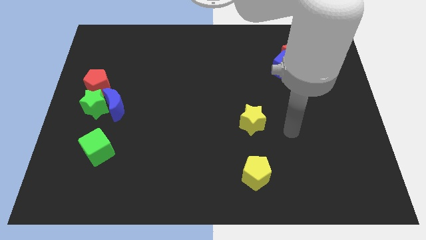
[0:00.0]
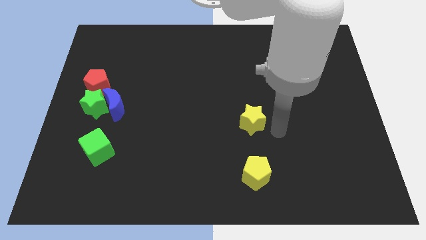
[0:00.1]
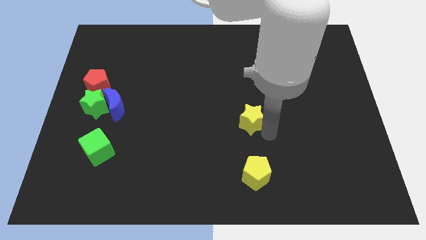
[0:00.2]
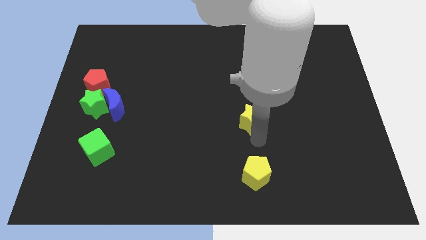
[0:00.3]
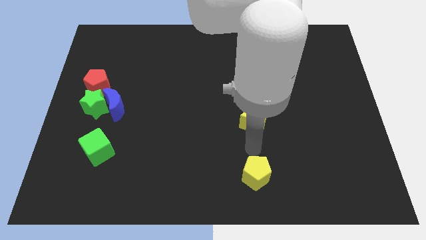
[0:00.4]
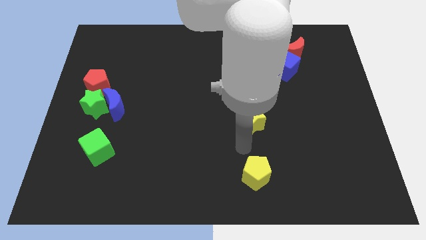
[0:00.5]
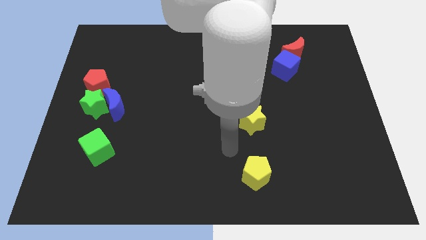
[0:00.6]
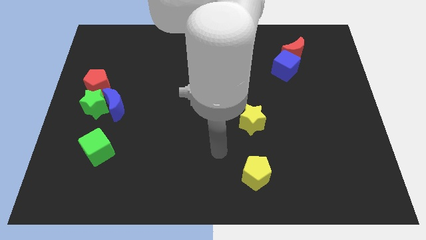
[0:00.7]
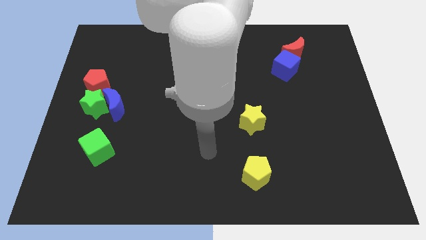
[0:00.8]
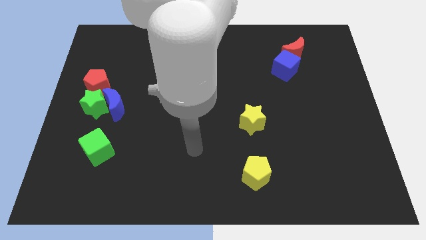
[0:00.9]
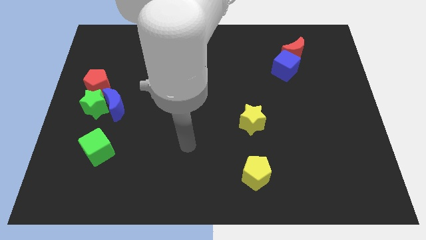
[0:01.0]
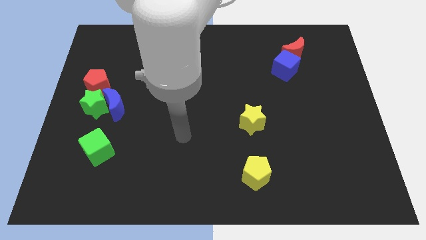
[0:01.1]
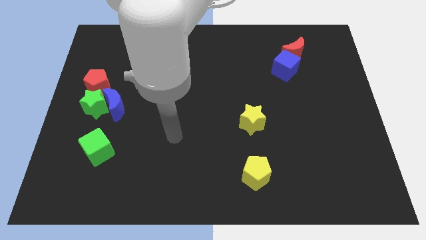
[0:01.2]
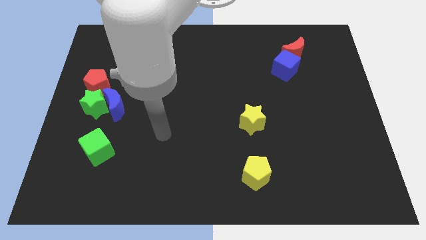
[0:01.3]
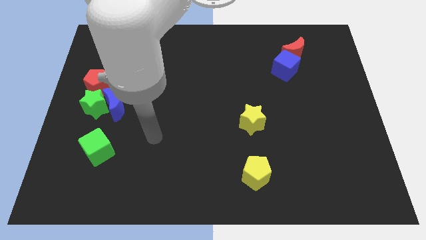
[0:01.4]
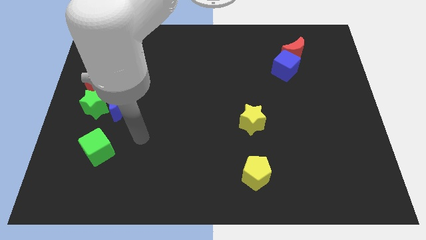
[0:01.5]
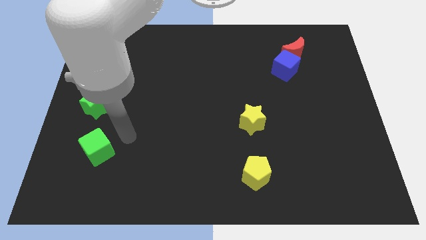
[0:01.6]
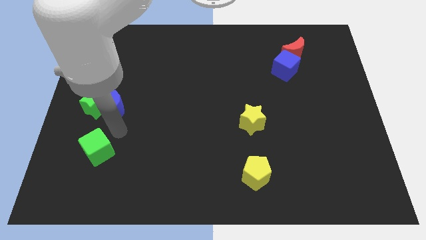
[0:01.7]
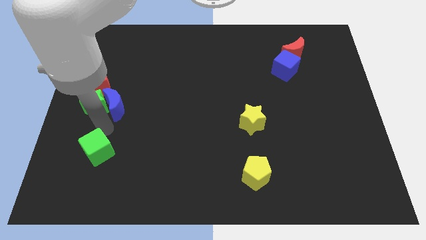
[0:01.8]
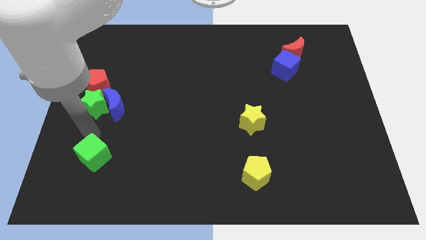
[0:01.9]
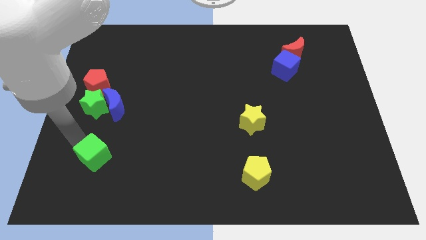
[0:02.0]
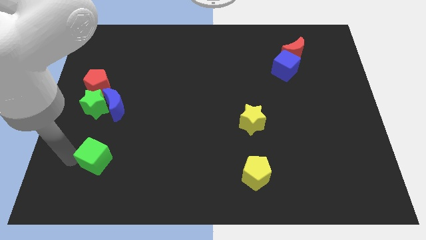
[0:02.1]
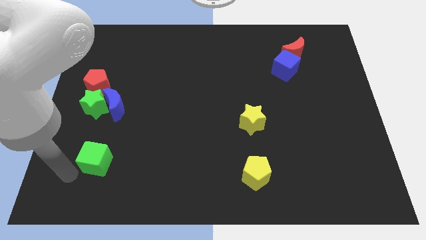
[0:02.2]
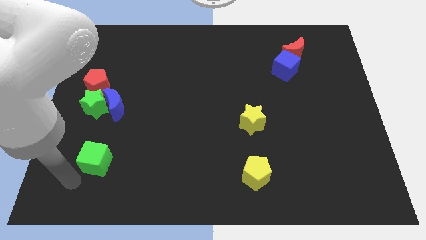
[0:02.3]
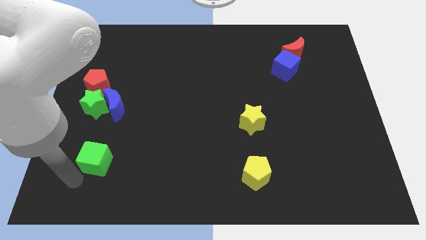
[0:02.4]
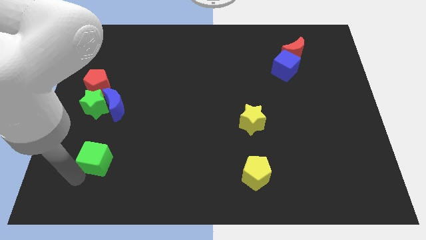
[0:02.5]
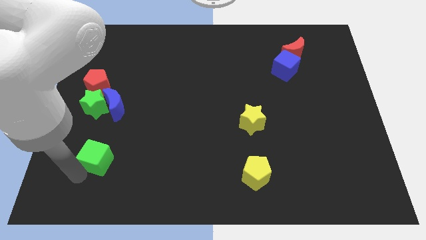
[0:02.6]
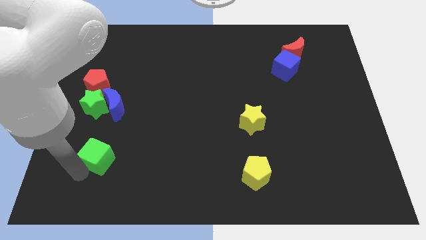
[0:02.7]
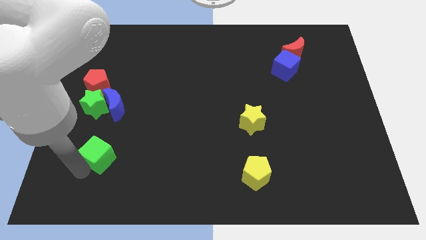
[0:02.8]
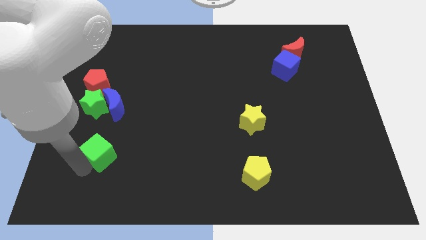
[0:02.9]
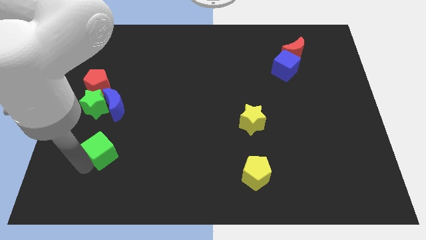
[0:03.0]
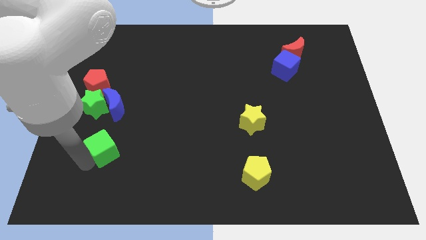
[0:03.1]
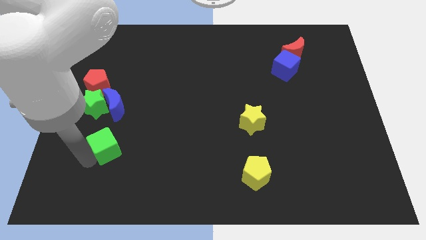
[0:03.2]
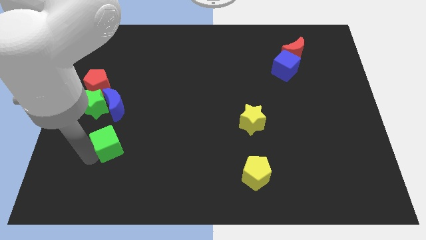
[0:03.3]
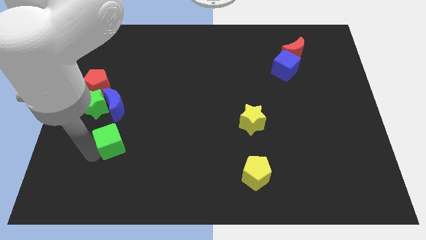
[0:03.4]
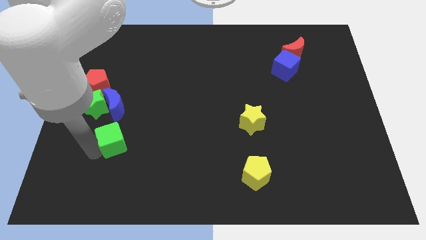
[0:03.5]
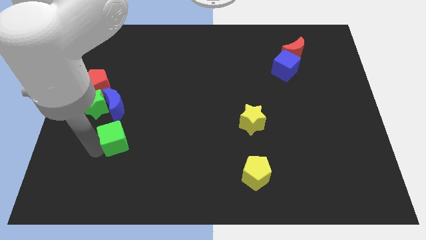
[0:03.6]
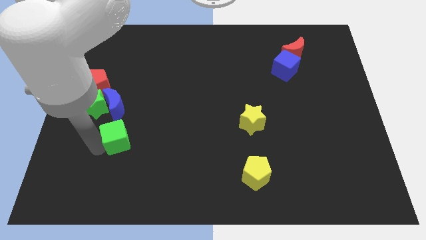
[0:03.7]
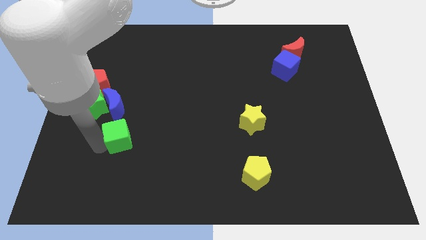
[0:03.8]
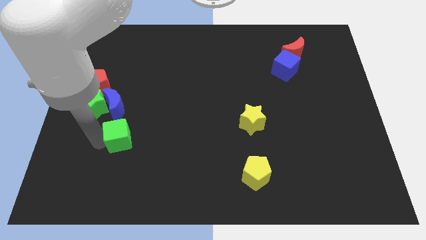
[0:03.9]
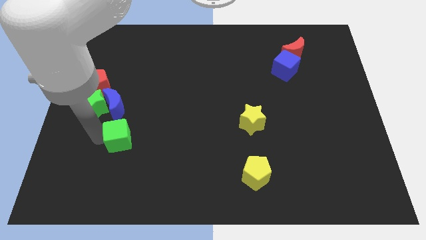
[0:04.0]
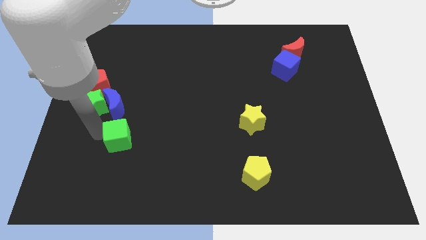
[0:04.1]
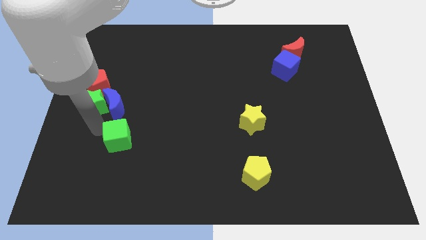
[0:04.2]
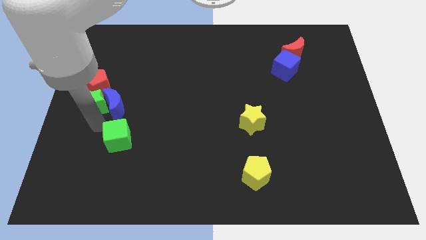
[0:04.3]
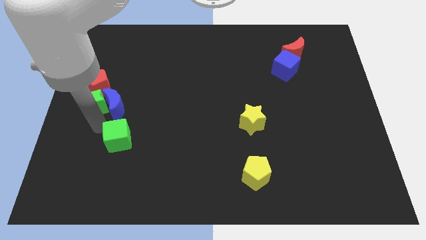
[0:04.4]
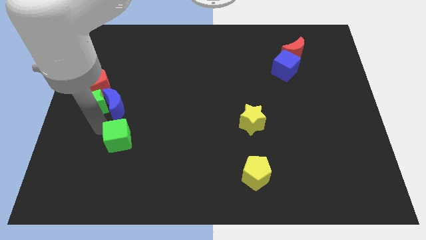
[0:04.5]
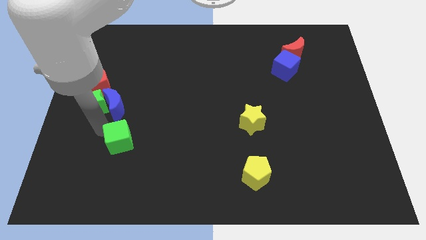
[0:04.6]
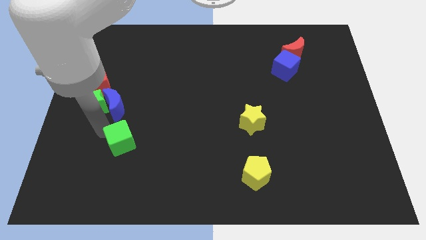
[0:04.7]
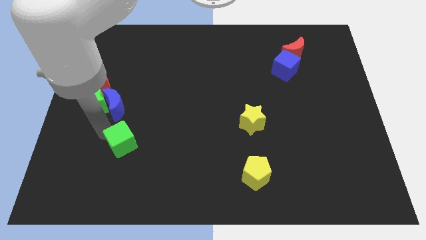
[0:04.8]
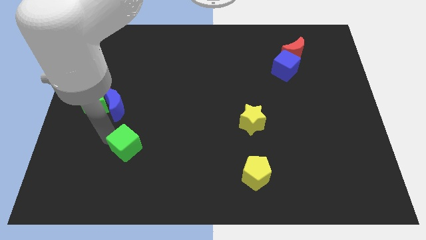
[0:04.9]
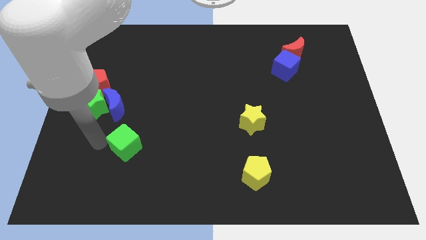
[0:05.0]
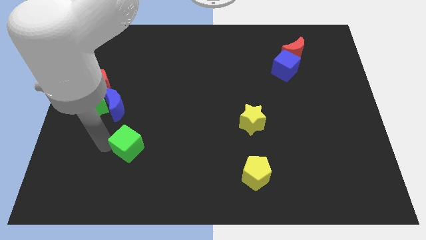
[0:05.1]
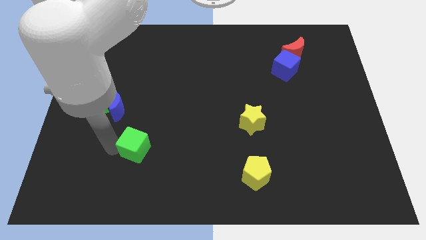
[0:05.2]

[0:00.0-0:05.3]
slide the green cube right a little

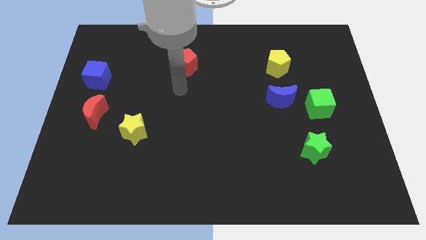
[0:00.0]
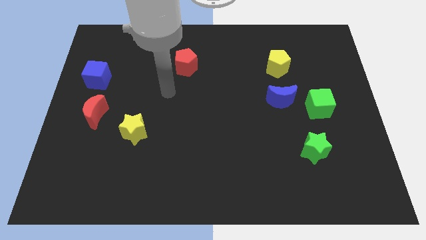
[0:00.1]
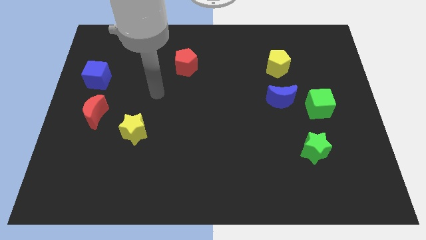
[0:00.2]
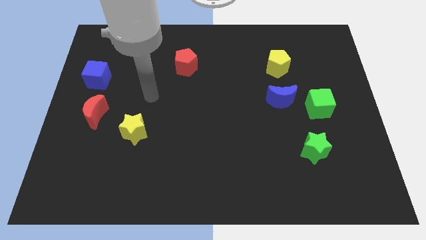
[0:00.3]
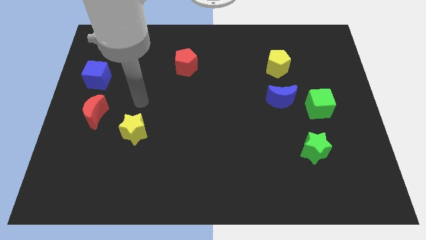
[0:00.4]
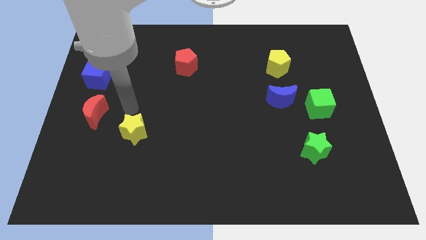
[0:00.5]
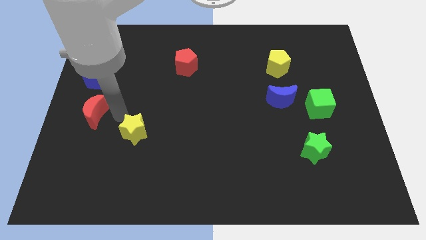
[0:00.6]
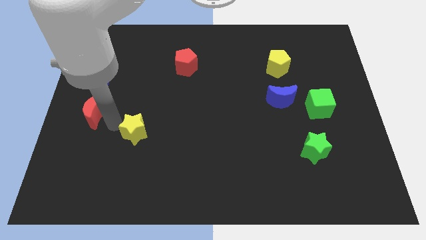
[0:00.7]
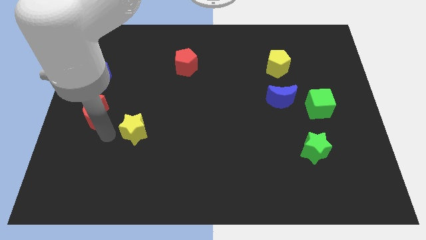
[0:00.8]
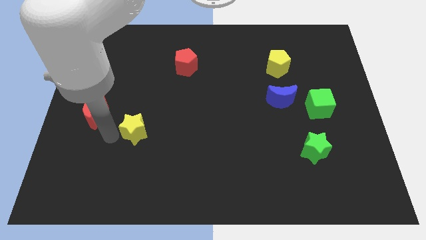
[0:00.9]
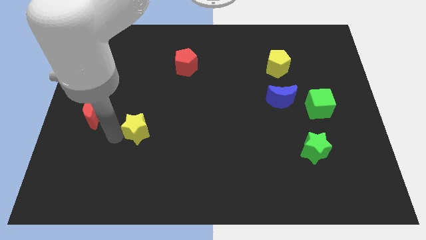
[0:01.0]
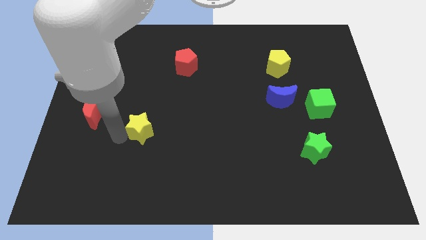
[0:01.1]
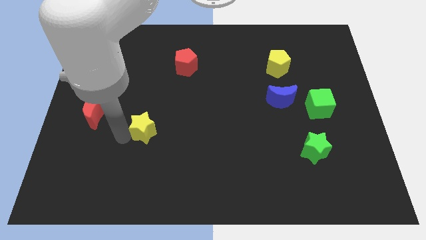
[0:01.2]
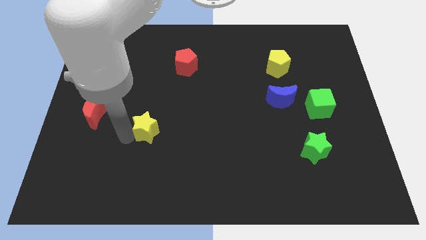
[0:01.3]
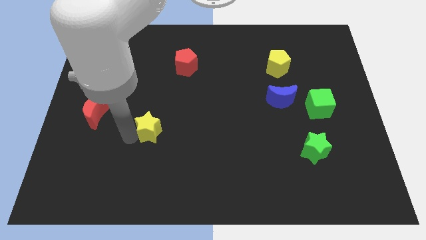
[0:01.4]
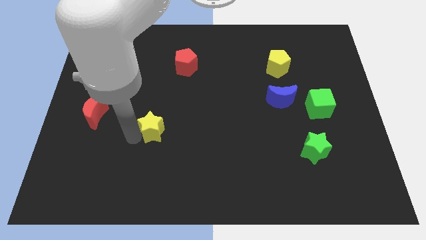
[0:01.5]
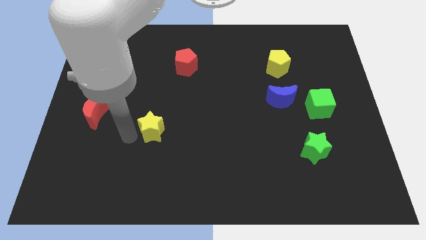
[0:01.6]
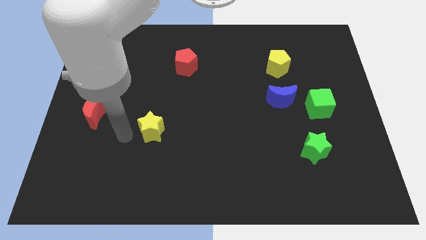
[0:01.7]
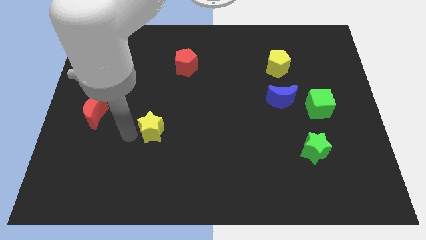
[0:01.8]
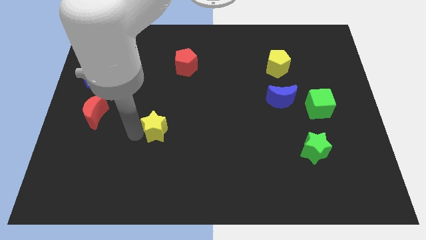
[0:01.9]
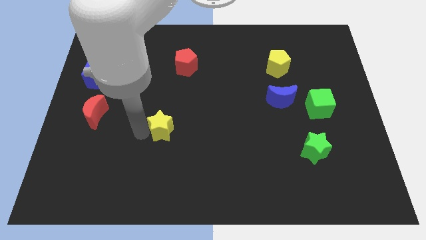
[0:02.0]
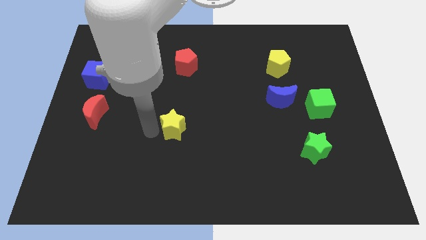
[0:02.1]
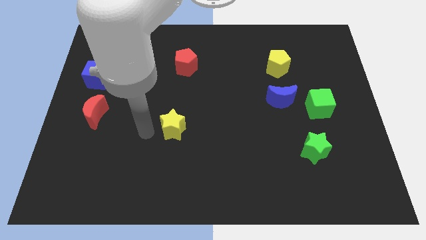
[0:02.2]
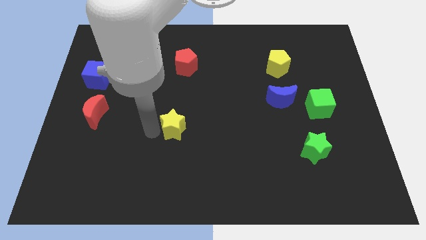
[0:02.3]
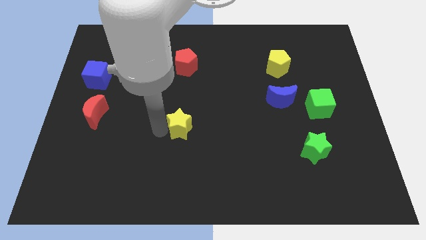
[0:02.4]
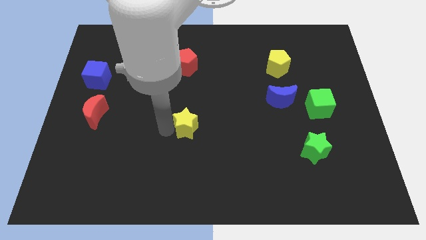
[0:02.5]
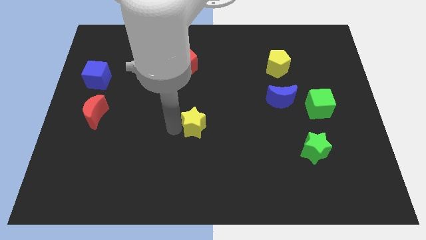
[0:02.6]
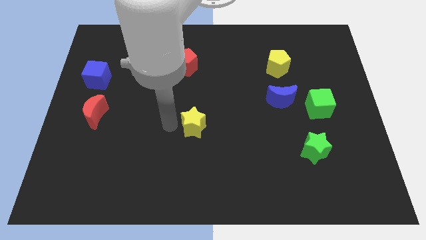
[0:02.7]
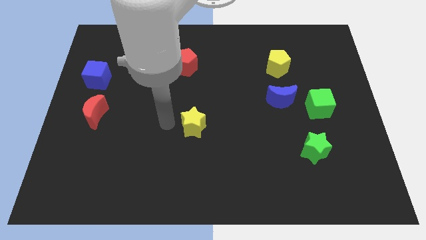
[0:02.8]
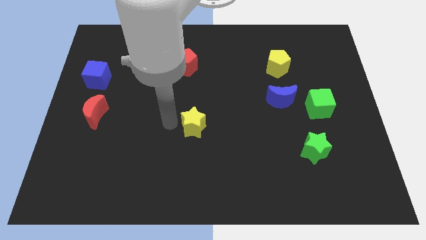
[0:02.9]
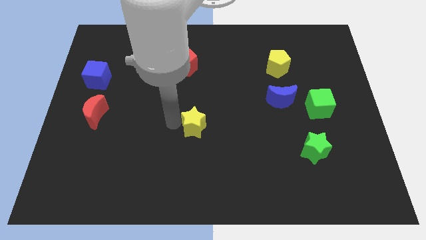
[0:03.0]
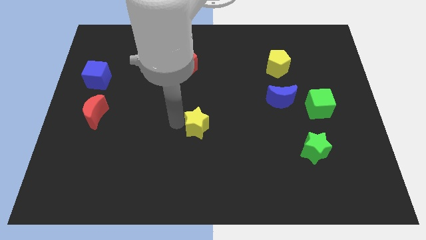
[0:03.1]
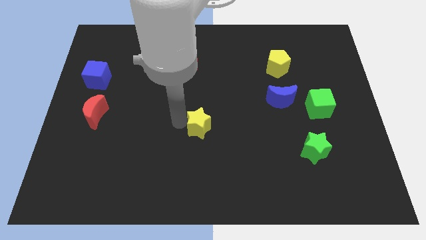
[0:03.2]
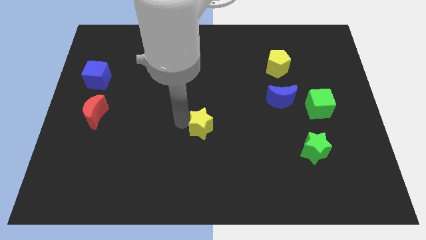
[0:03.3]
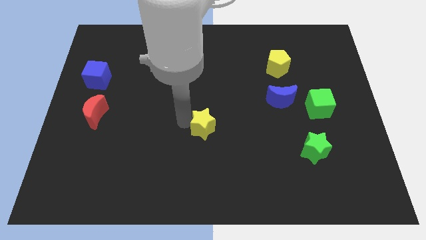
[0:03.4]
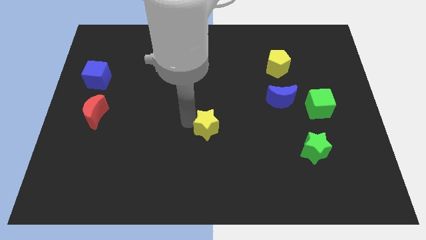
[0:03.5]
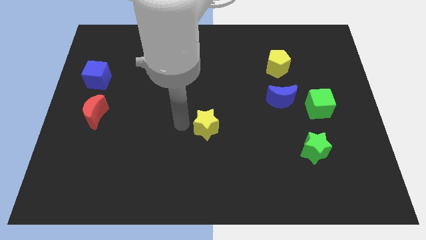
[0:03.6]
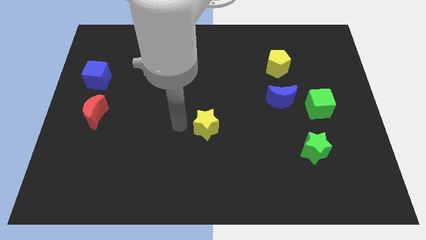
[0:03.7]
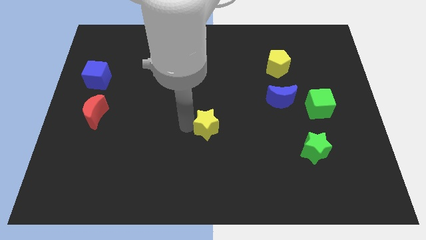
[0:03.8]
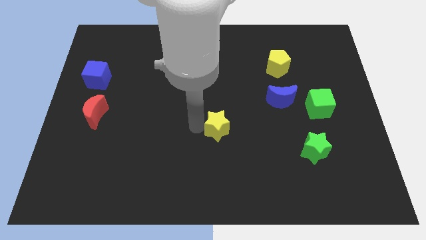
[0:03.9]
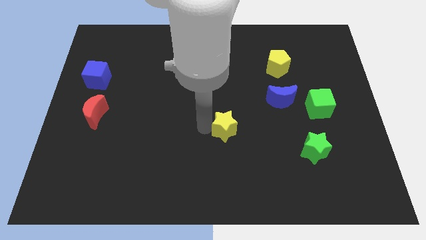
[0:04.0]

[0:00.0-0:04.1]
slide the yellow star to the right
